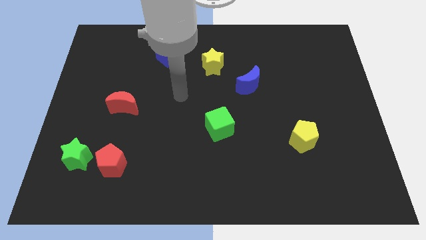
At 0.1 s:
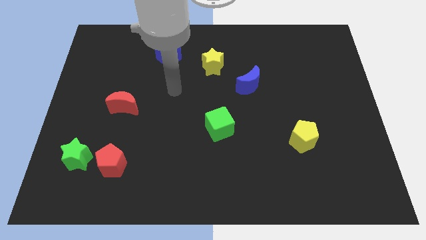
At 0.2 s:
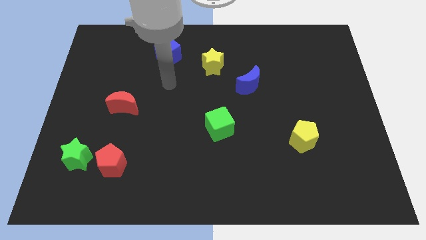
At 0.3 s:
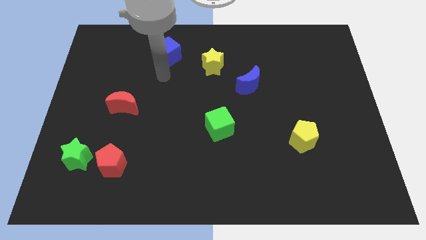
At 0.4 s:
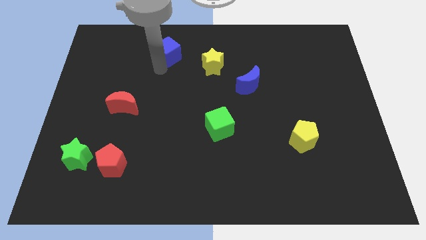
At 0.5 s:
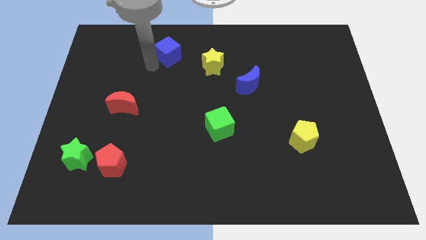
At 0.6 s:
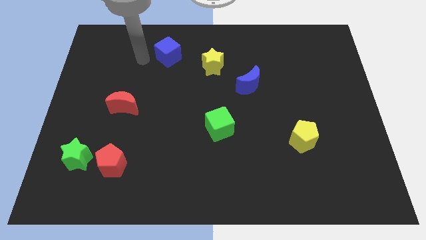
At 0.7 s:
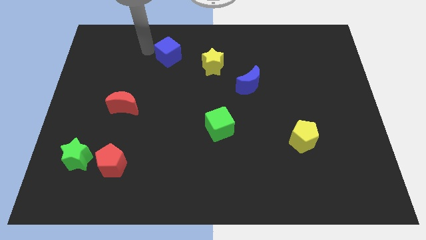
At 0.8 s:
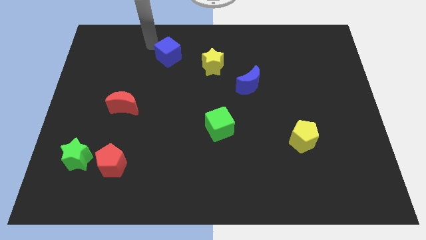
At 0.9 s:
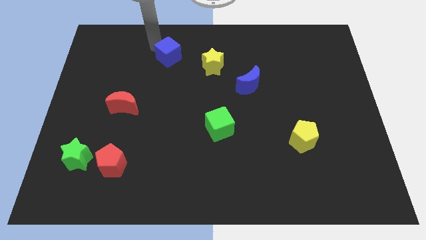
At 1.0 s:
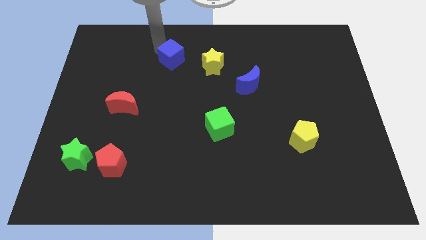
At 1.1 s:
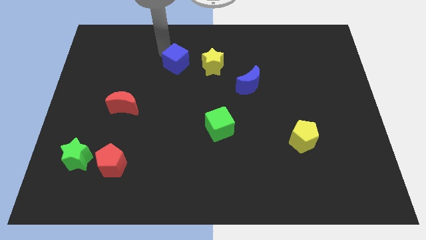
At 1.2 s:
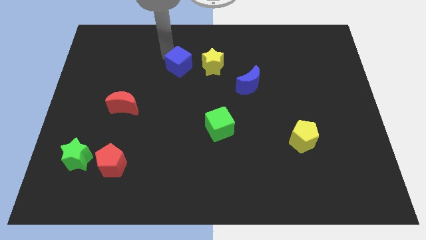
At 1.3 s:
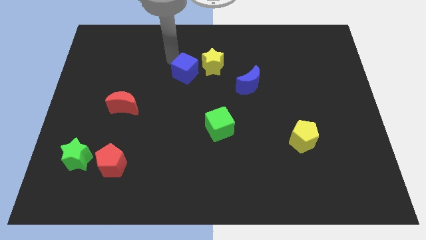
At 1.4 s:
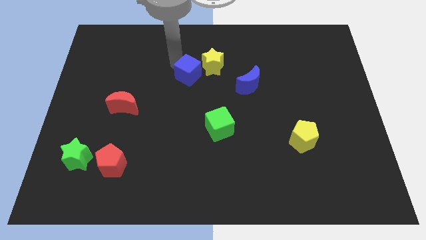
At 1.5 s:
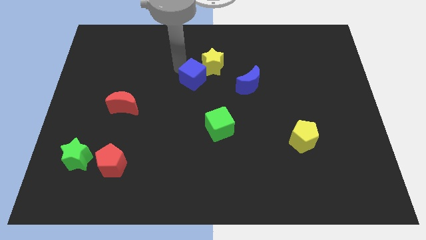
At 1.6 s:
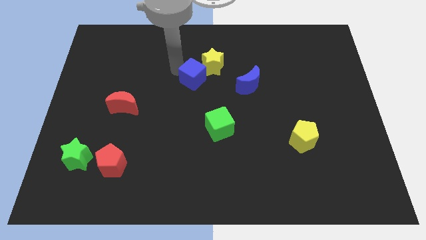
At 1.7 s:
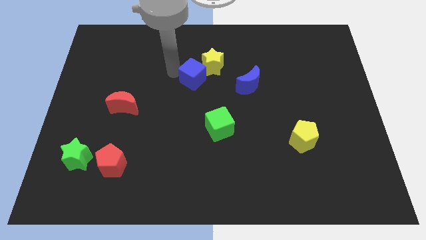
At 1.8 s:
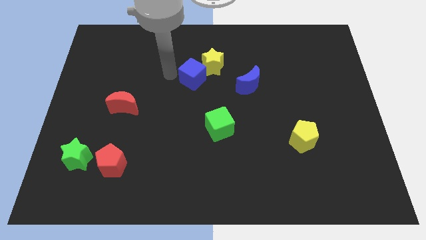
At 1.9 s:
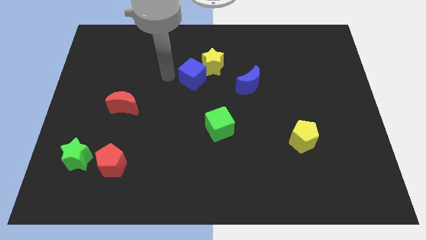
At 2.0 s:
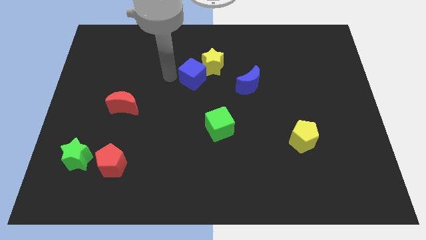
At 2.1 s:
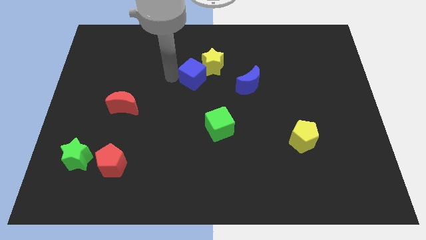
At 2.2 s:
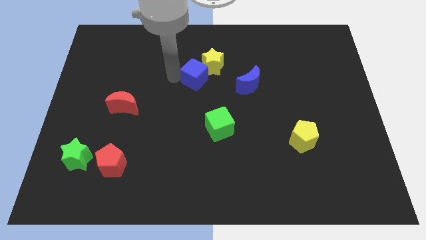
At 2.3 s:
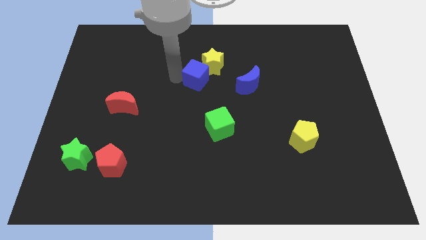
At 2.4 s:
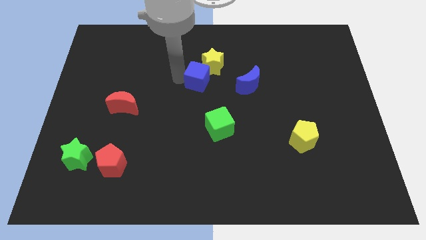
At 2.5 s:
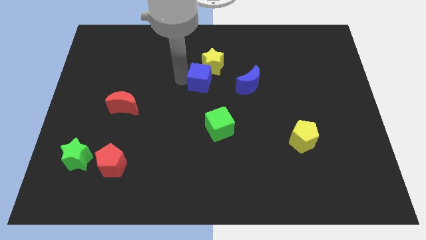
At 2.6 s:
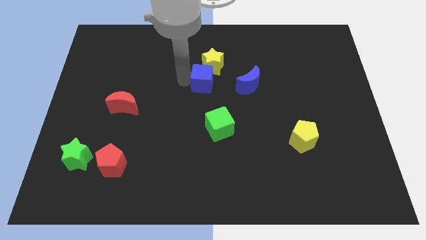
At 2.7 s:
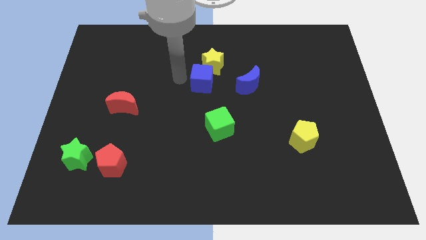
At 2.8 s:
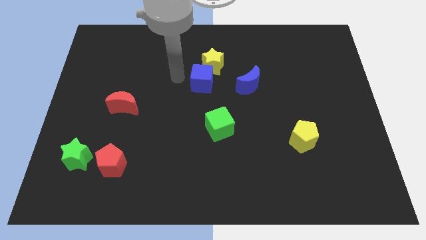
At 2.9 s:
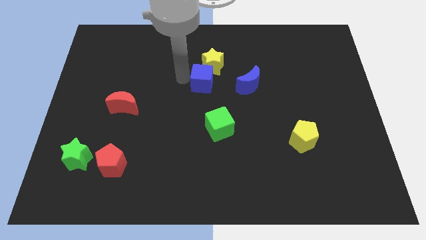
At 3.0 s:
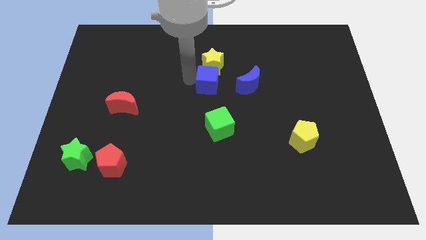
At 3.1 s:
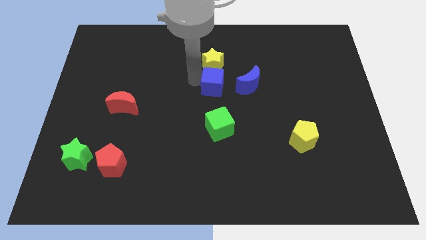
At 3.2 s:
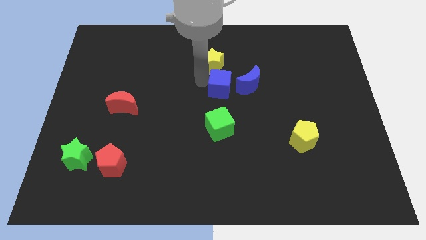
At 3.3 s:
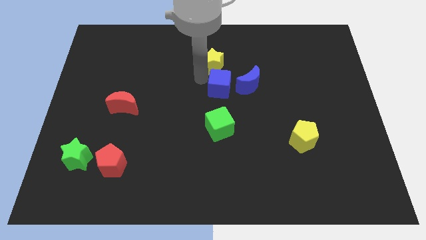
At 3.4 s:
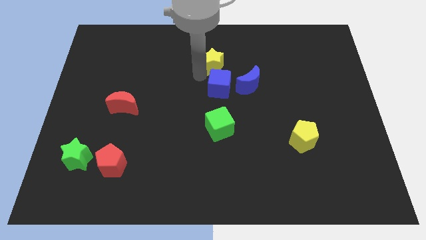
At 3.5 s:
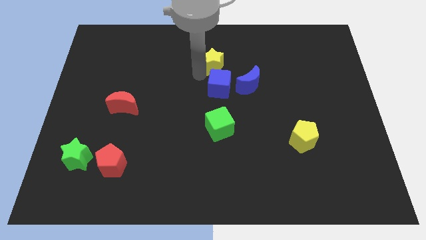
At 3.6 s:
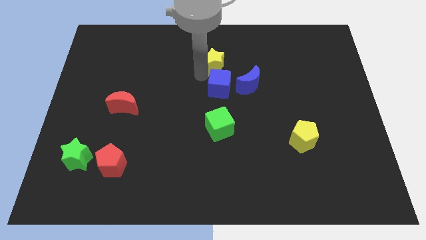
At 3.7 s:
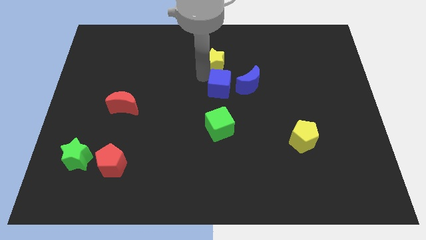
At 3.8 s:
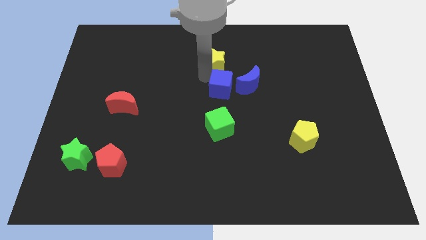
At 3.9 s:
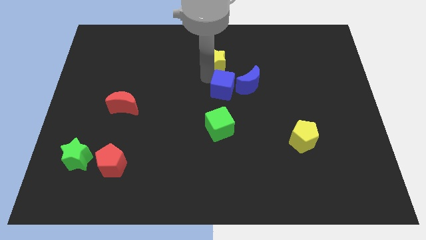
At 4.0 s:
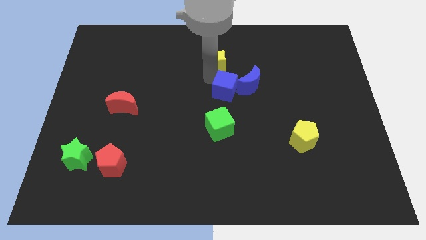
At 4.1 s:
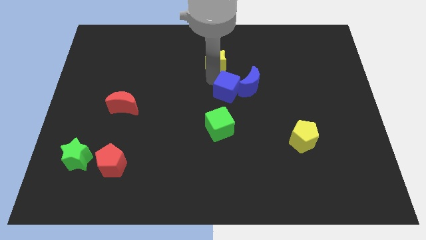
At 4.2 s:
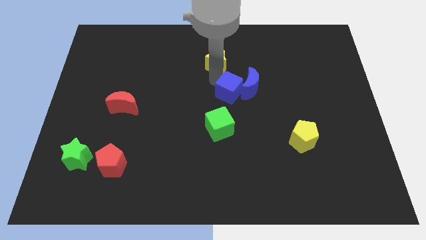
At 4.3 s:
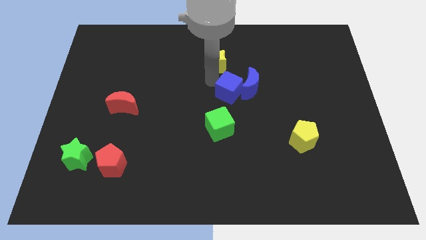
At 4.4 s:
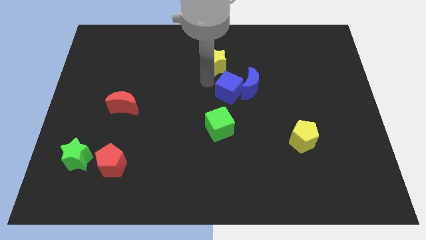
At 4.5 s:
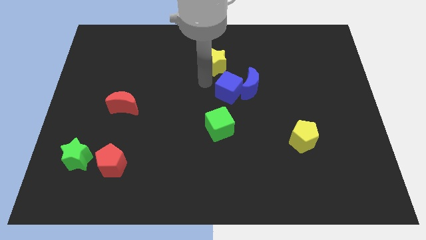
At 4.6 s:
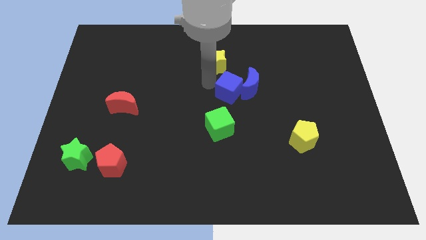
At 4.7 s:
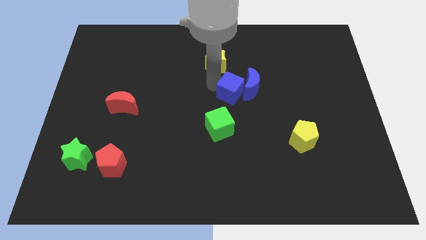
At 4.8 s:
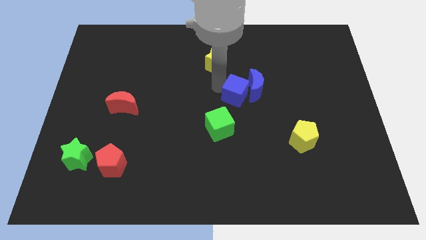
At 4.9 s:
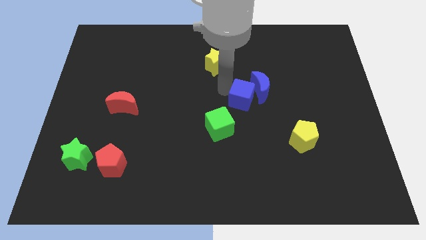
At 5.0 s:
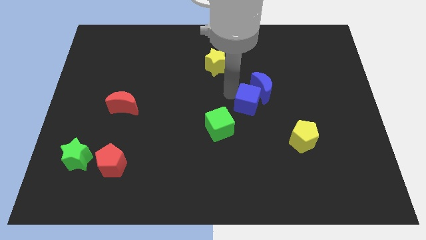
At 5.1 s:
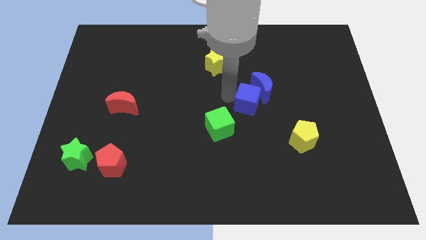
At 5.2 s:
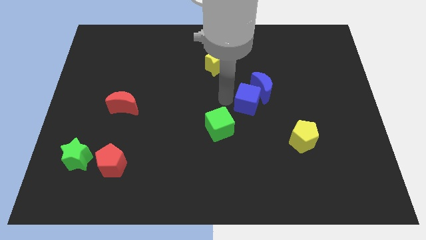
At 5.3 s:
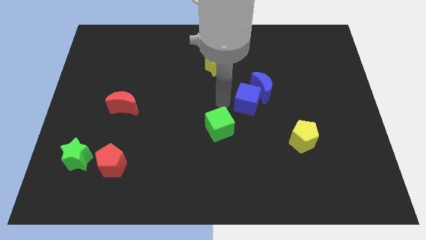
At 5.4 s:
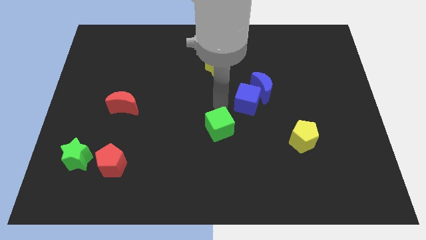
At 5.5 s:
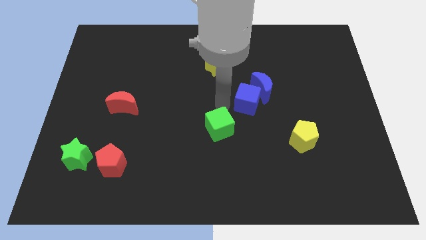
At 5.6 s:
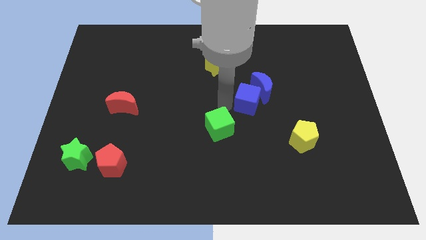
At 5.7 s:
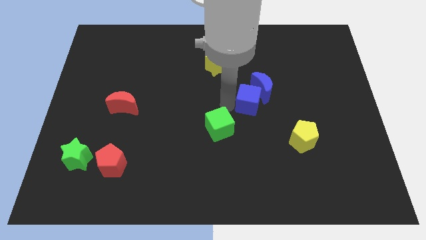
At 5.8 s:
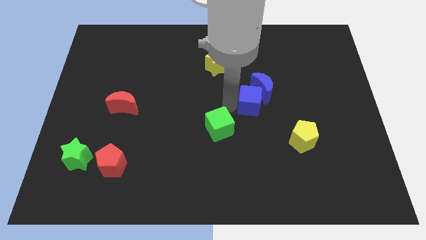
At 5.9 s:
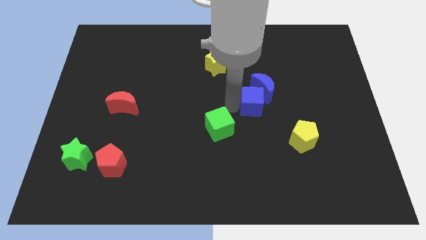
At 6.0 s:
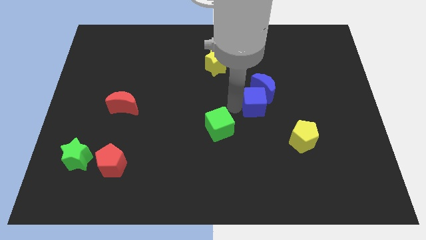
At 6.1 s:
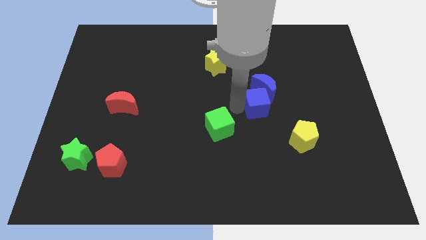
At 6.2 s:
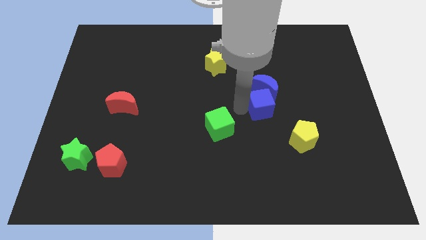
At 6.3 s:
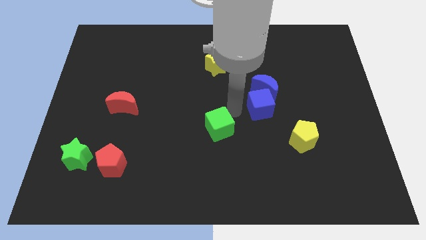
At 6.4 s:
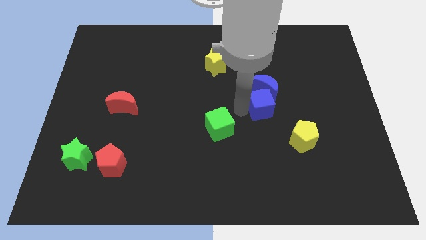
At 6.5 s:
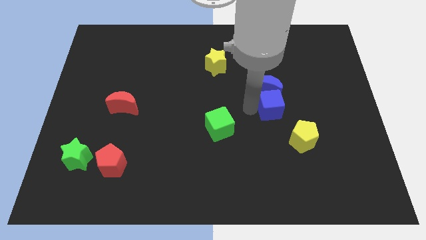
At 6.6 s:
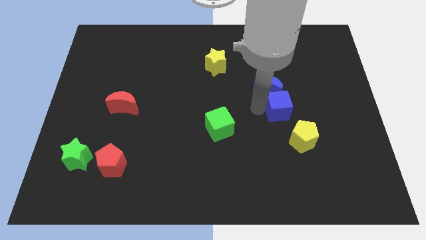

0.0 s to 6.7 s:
push the blue cube to the top of the yellow pentagon

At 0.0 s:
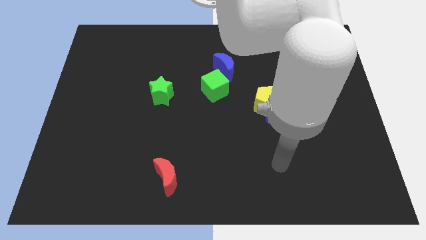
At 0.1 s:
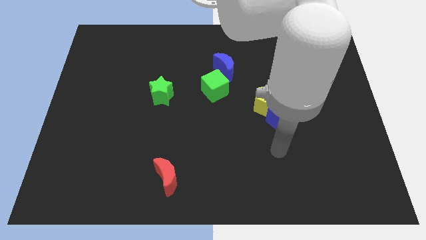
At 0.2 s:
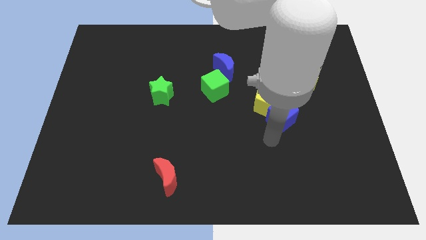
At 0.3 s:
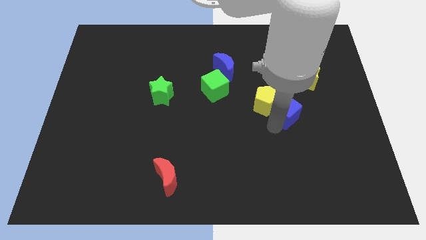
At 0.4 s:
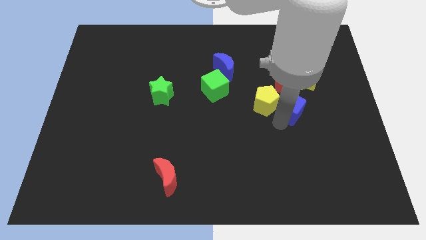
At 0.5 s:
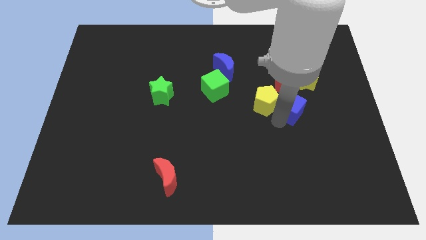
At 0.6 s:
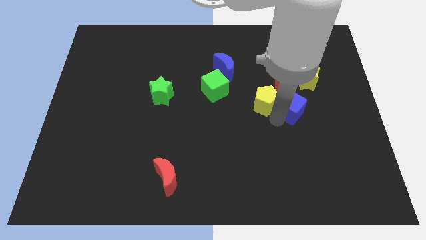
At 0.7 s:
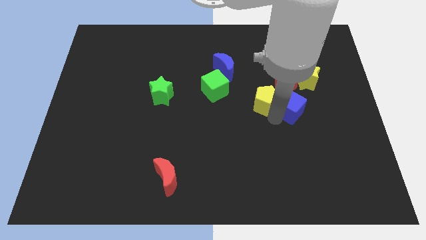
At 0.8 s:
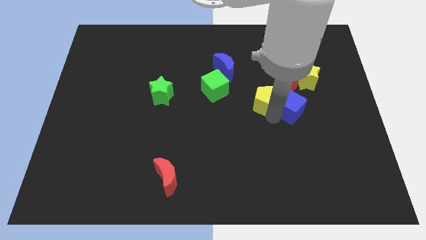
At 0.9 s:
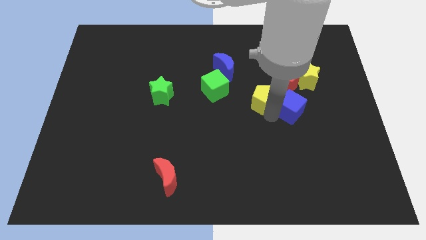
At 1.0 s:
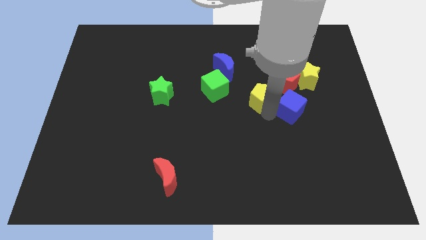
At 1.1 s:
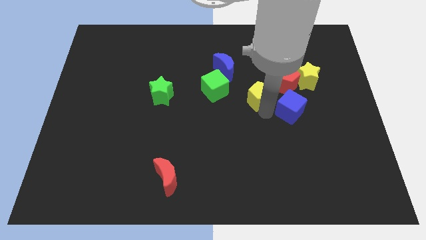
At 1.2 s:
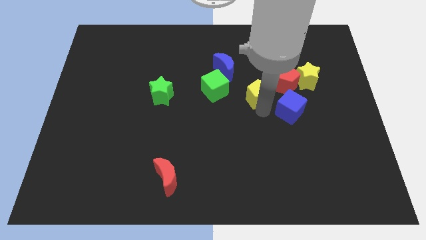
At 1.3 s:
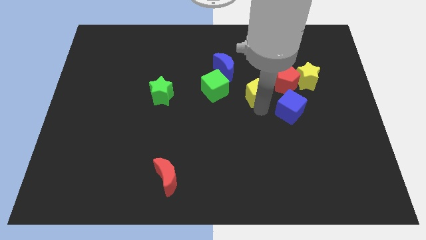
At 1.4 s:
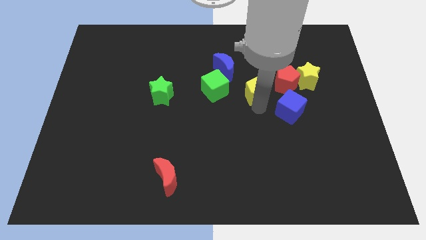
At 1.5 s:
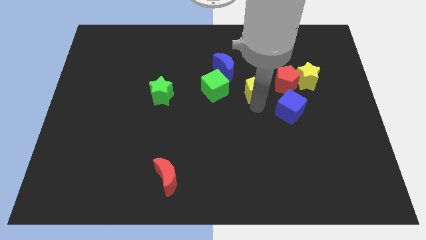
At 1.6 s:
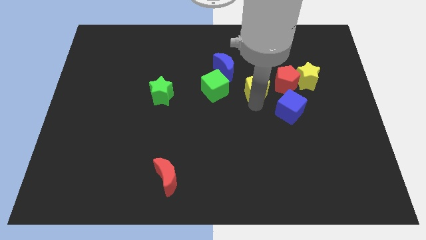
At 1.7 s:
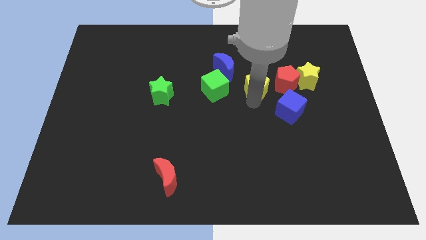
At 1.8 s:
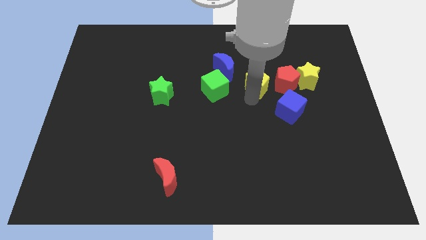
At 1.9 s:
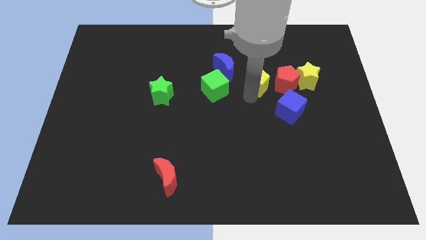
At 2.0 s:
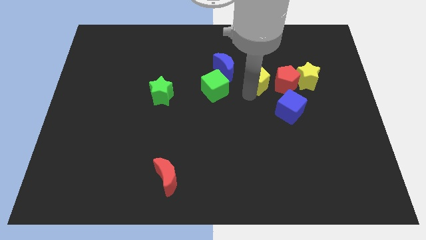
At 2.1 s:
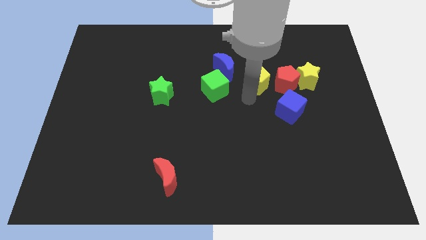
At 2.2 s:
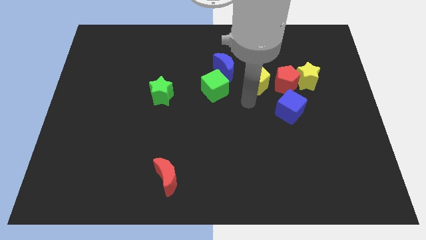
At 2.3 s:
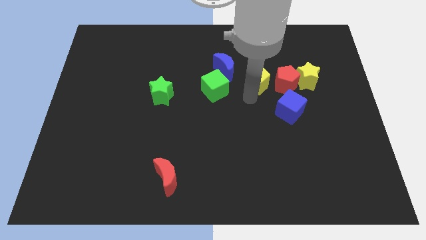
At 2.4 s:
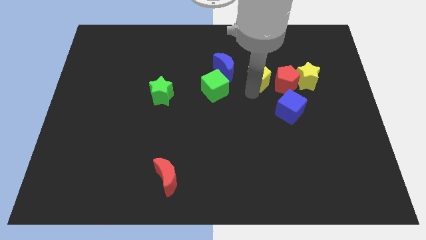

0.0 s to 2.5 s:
put the yellow pentagon to the top left side of the red pentagon
